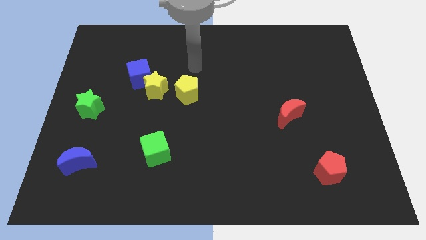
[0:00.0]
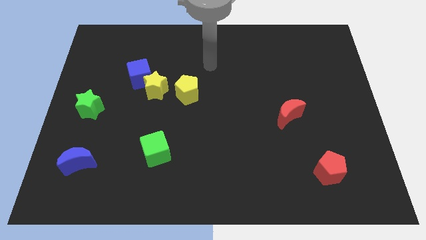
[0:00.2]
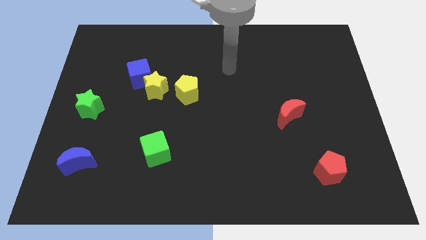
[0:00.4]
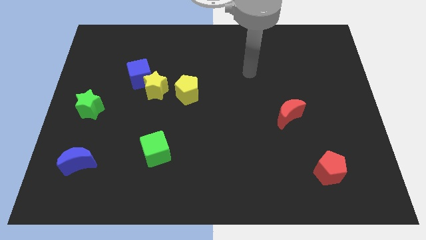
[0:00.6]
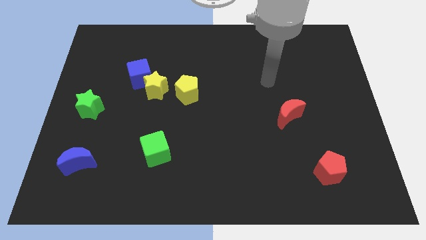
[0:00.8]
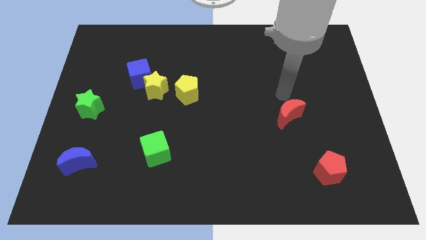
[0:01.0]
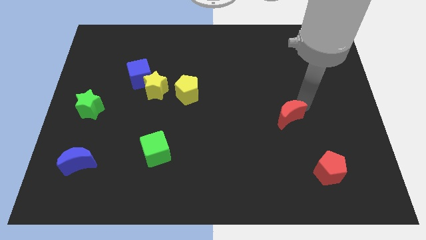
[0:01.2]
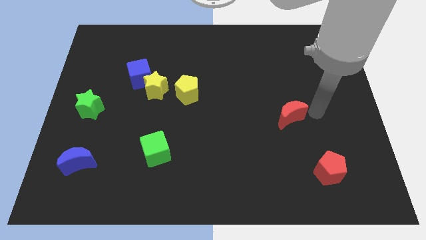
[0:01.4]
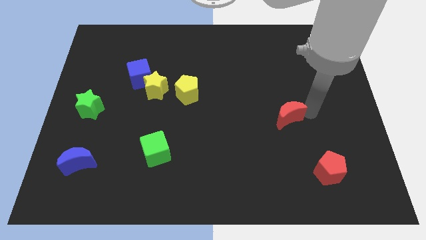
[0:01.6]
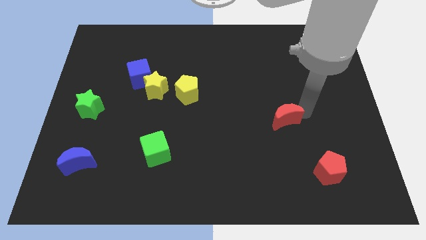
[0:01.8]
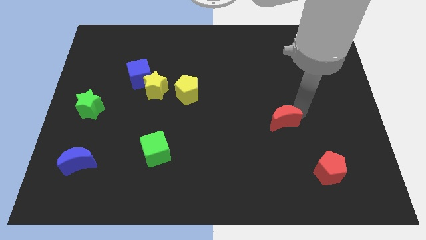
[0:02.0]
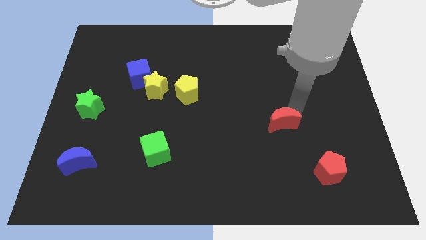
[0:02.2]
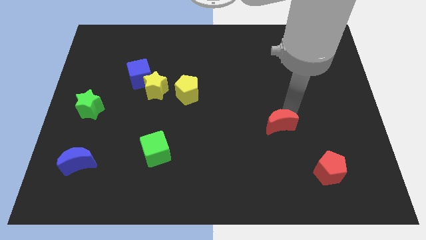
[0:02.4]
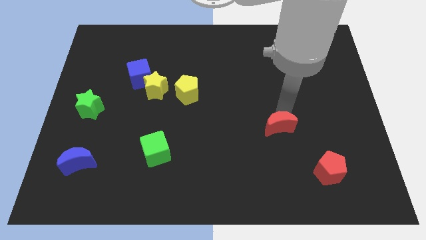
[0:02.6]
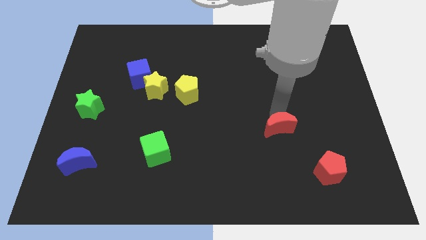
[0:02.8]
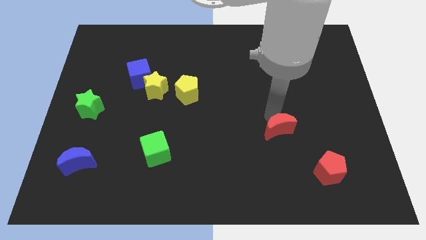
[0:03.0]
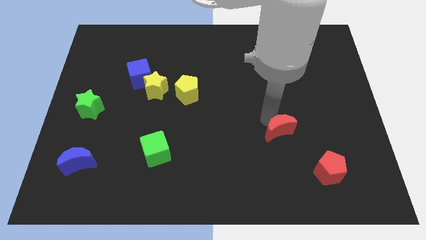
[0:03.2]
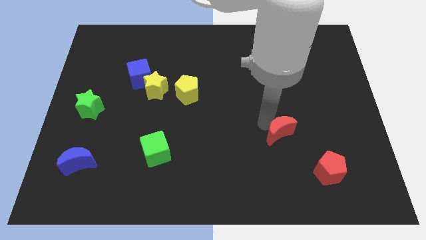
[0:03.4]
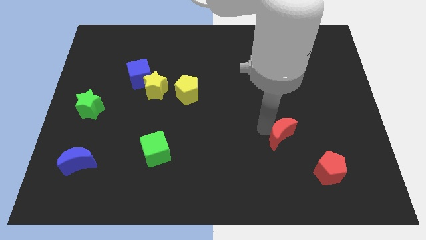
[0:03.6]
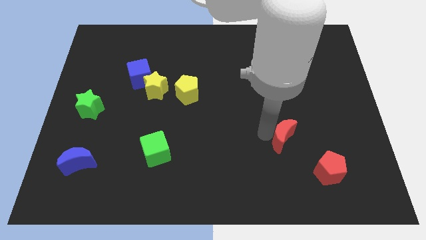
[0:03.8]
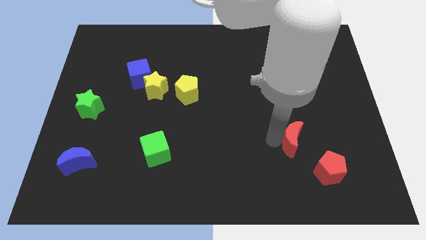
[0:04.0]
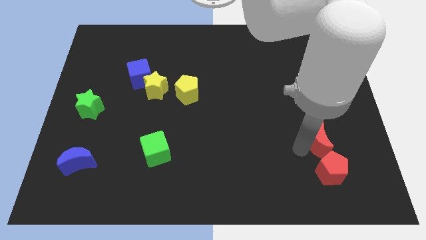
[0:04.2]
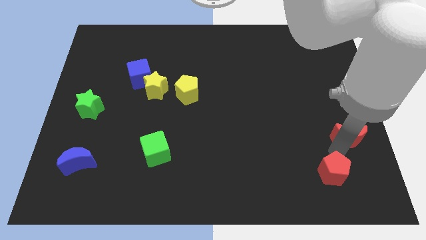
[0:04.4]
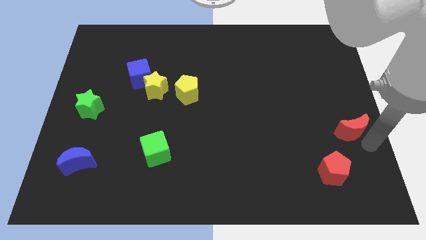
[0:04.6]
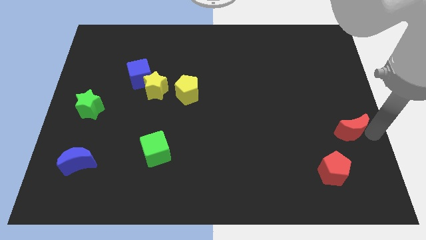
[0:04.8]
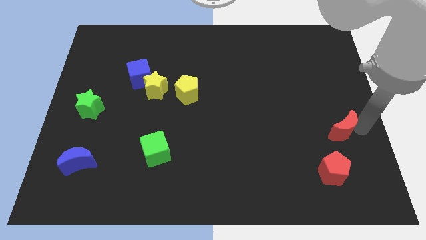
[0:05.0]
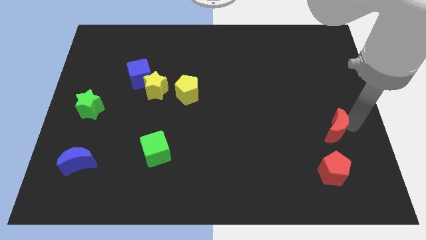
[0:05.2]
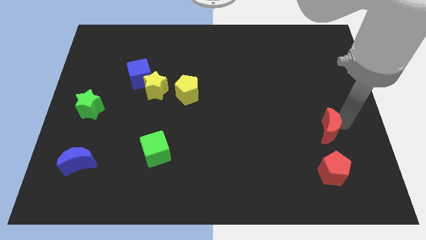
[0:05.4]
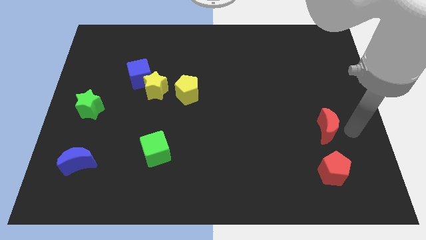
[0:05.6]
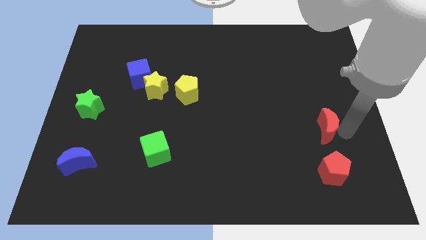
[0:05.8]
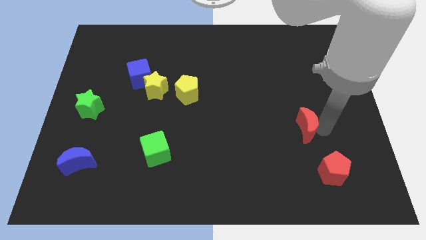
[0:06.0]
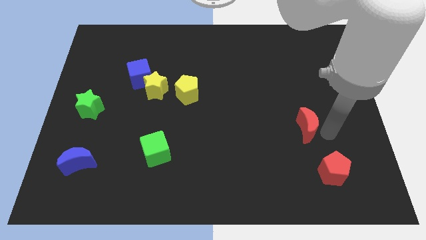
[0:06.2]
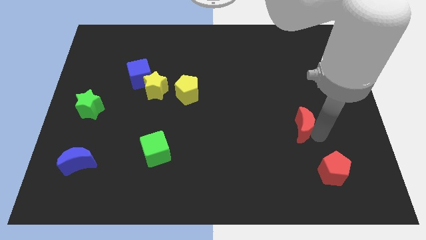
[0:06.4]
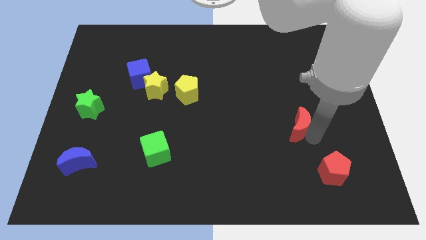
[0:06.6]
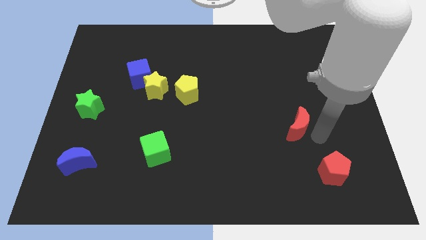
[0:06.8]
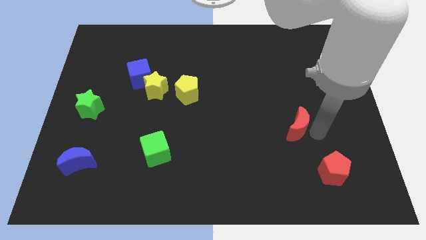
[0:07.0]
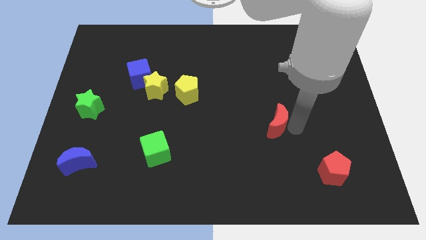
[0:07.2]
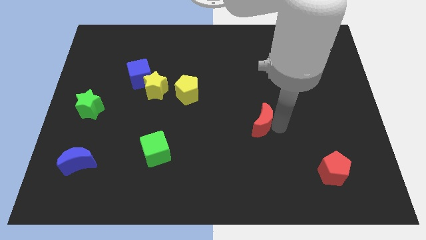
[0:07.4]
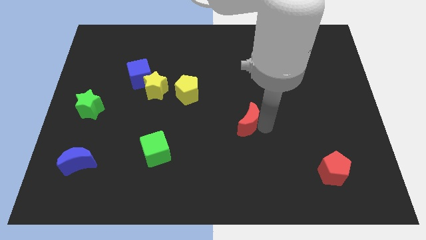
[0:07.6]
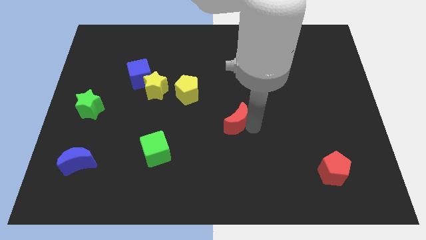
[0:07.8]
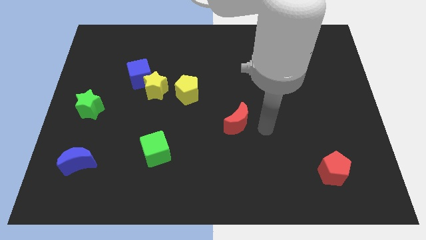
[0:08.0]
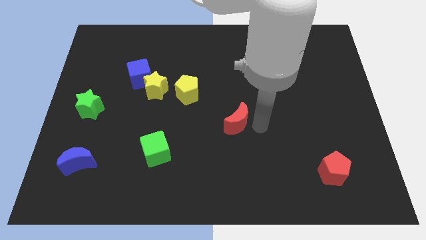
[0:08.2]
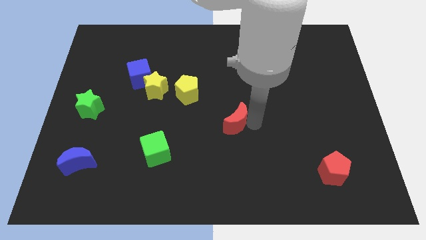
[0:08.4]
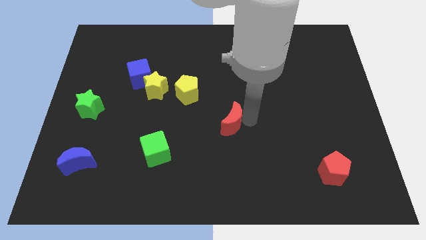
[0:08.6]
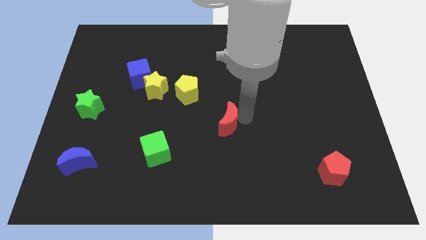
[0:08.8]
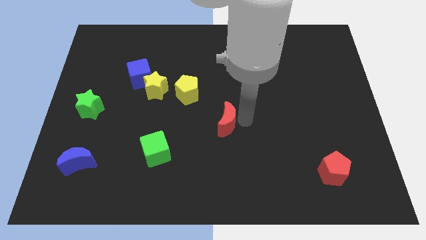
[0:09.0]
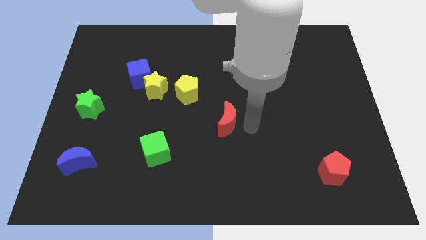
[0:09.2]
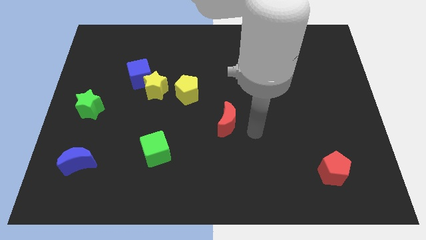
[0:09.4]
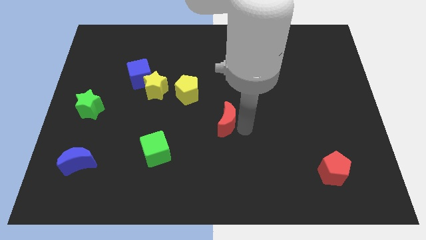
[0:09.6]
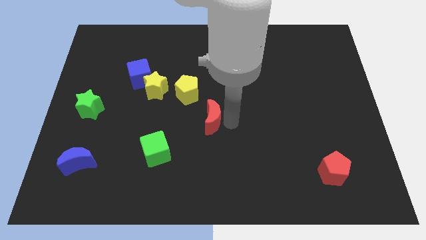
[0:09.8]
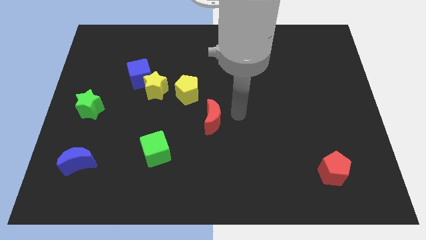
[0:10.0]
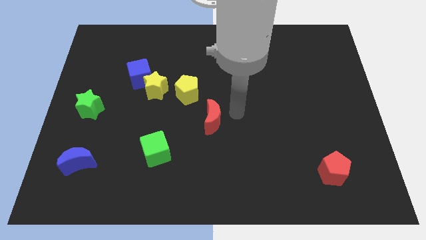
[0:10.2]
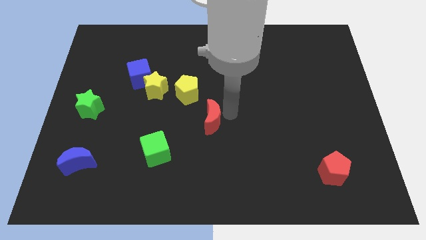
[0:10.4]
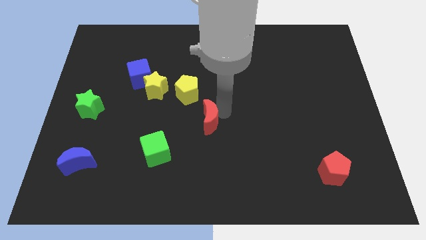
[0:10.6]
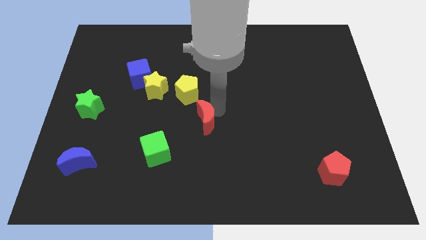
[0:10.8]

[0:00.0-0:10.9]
slide the red moon to the bottom side of the yellow pentagon

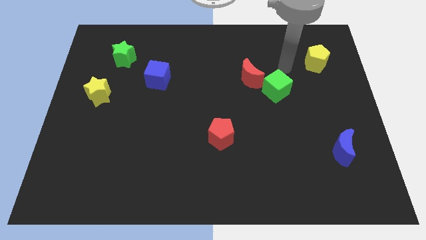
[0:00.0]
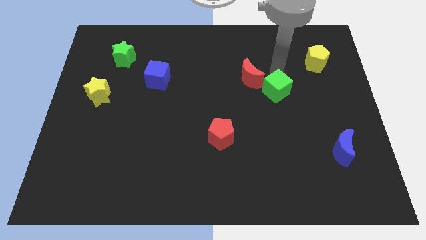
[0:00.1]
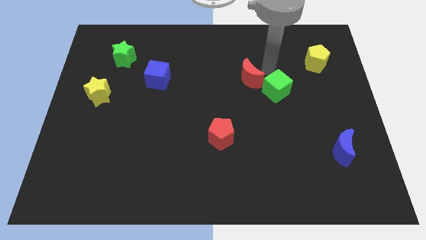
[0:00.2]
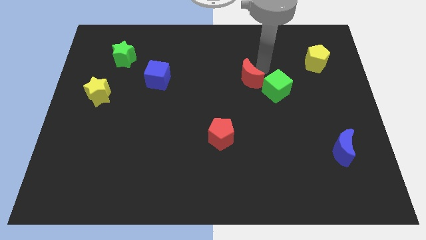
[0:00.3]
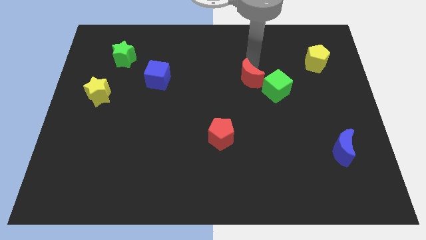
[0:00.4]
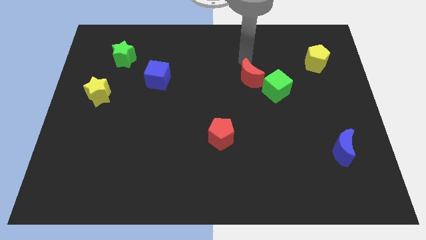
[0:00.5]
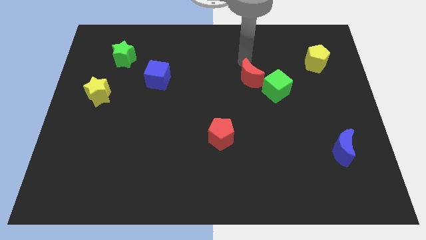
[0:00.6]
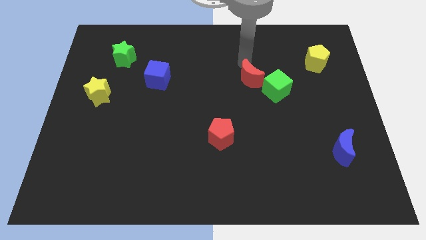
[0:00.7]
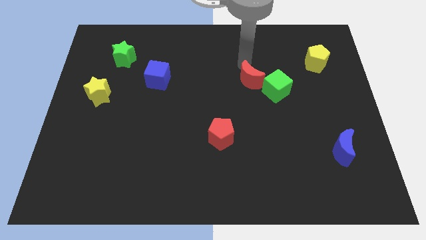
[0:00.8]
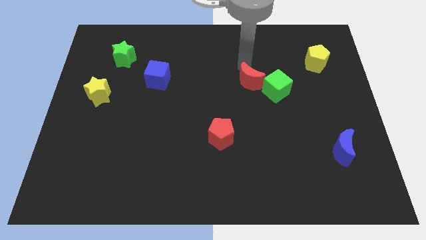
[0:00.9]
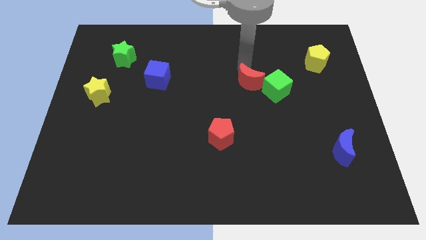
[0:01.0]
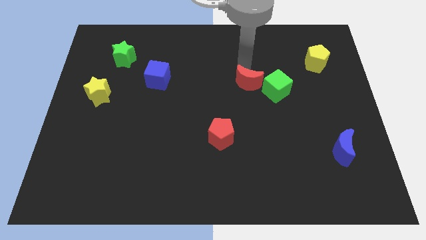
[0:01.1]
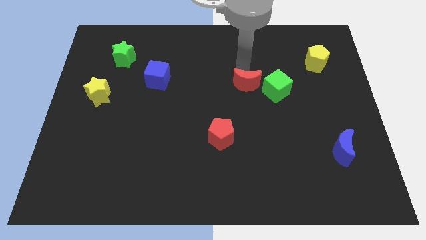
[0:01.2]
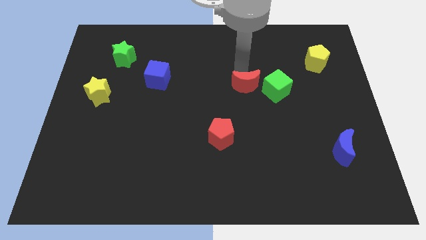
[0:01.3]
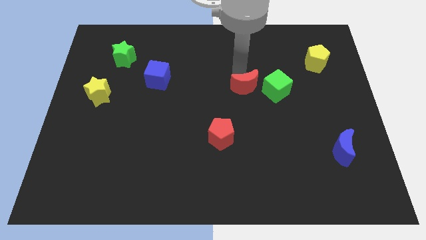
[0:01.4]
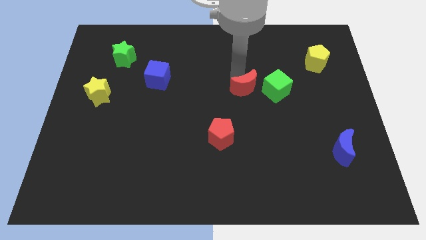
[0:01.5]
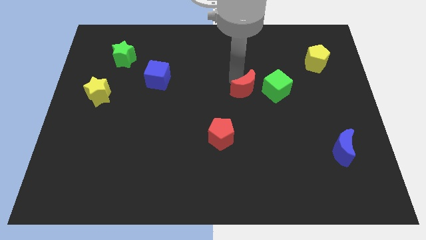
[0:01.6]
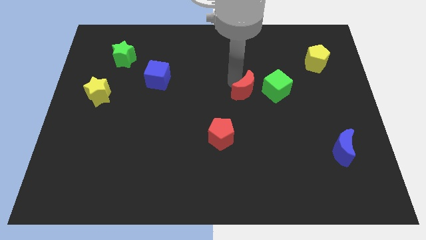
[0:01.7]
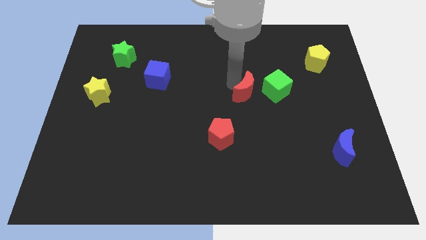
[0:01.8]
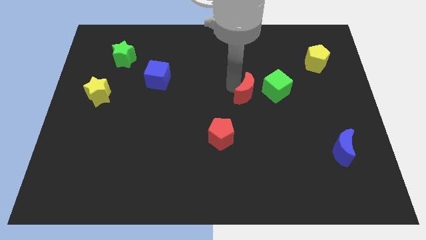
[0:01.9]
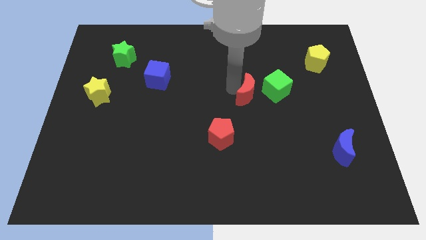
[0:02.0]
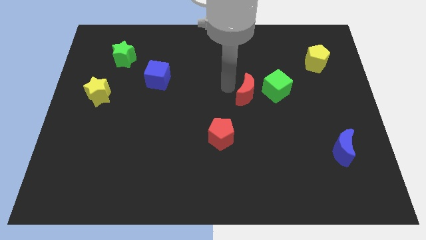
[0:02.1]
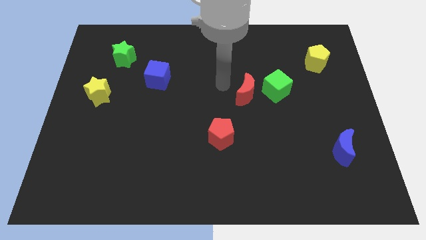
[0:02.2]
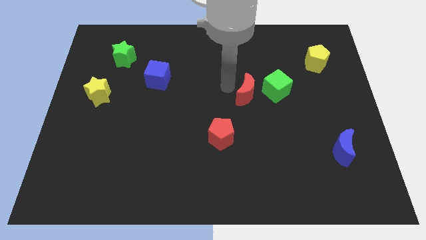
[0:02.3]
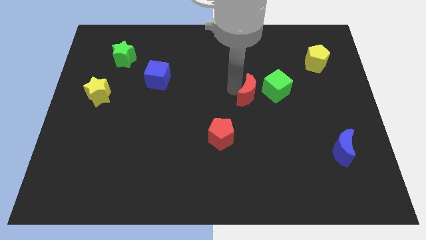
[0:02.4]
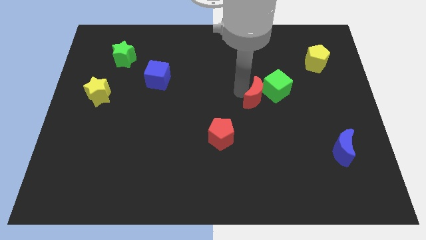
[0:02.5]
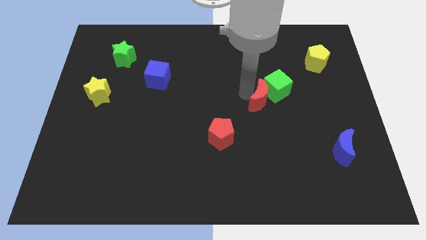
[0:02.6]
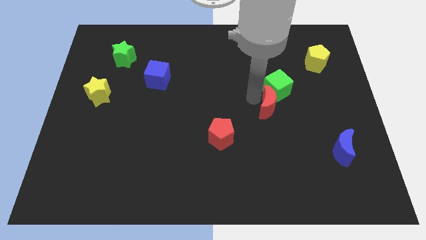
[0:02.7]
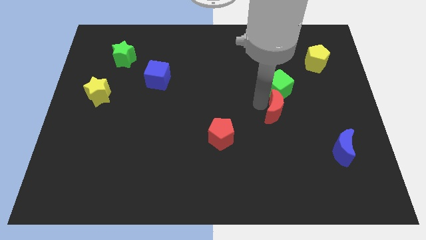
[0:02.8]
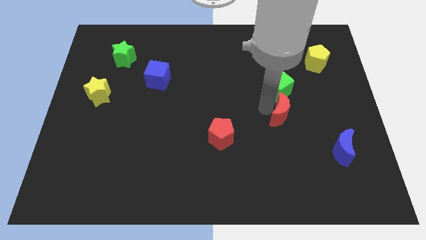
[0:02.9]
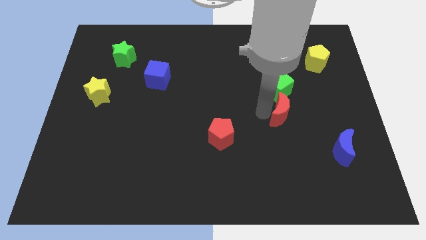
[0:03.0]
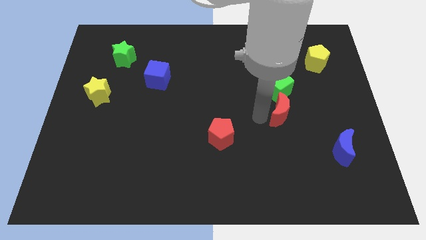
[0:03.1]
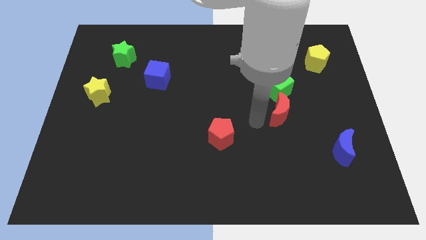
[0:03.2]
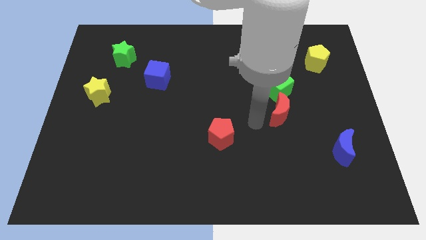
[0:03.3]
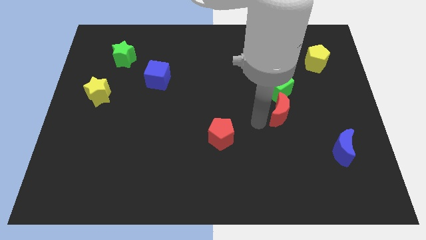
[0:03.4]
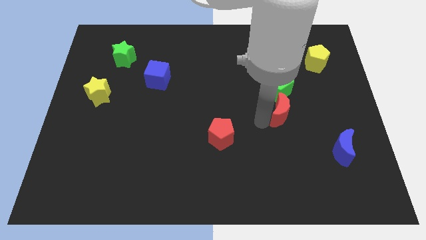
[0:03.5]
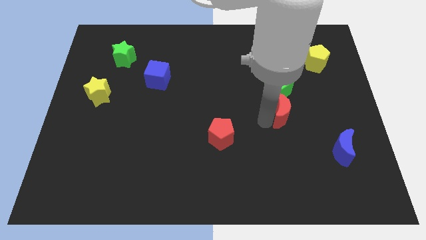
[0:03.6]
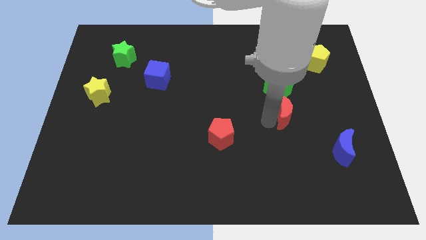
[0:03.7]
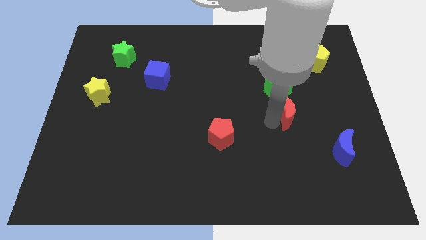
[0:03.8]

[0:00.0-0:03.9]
push the red moon diagonally down and to the right of the green cube
